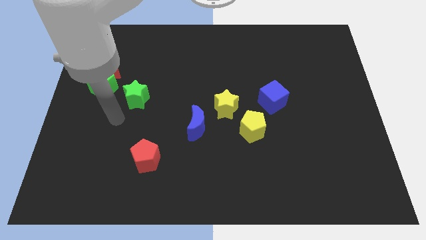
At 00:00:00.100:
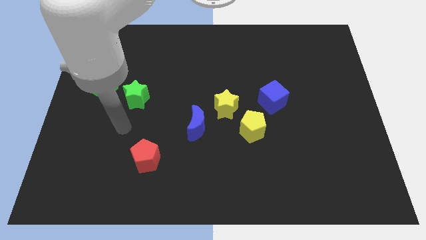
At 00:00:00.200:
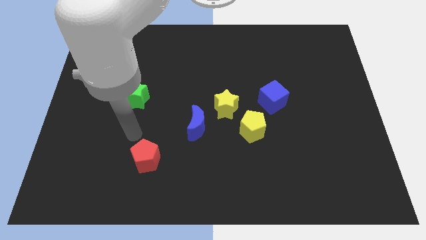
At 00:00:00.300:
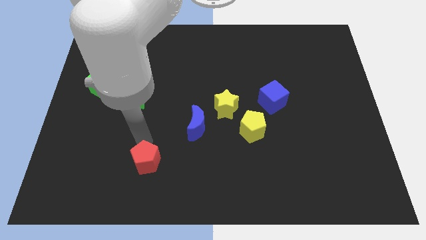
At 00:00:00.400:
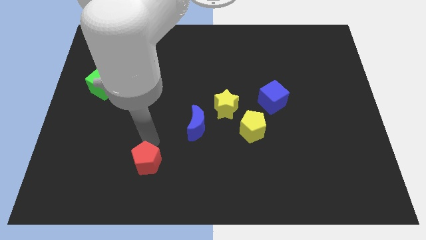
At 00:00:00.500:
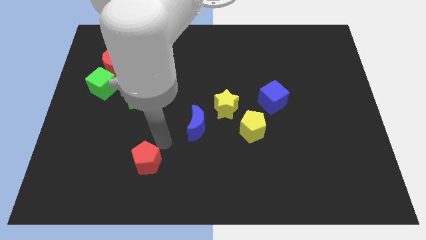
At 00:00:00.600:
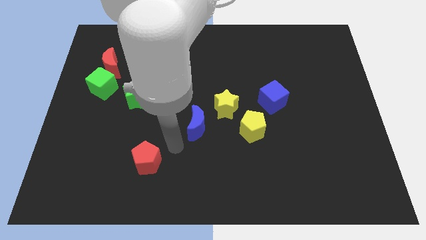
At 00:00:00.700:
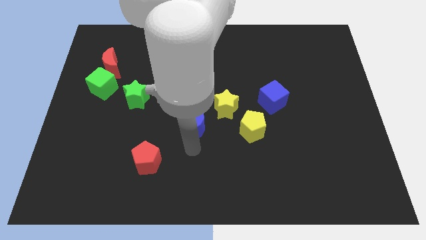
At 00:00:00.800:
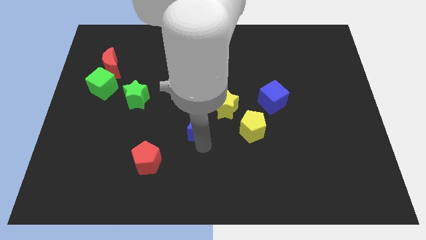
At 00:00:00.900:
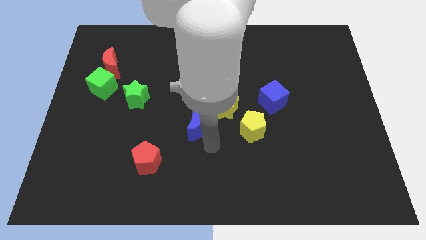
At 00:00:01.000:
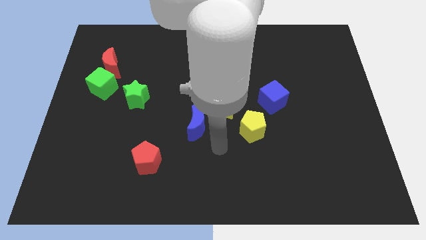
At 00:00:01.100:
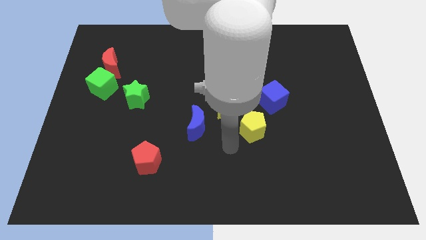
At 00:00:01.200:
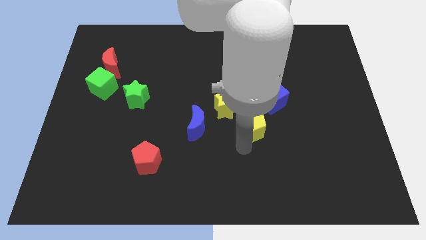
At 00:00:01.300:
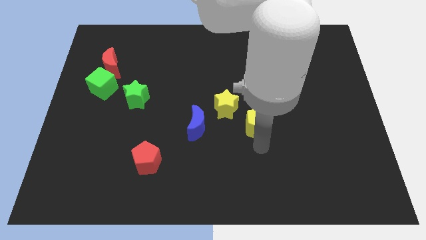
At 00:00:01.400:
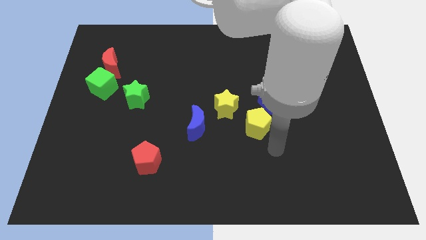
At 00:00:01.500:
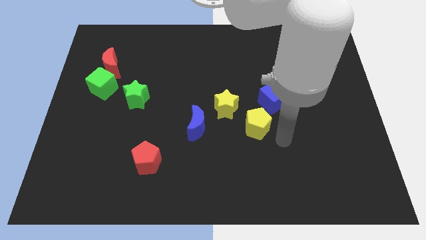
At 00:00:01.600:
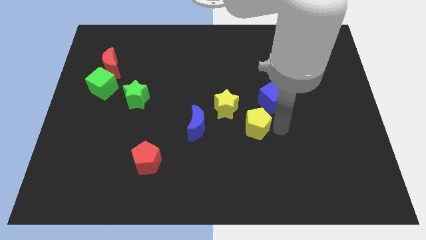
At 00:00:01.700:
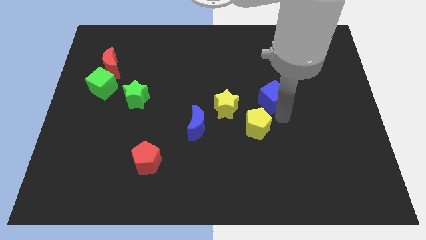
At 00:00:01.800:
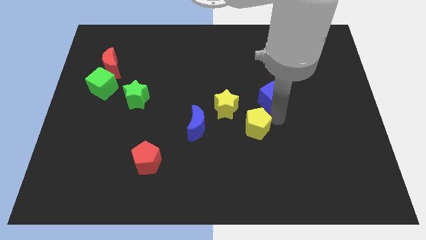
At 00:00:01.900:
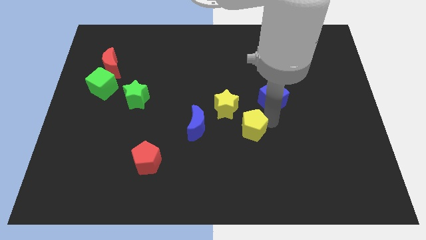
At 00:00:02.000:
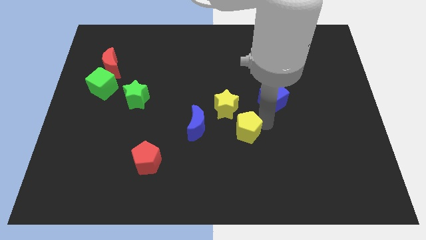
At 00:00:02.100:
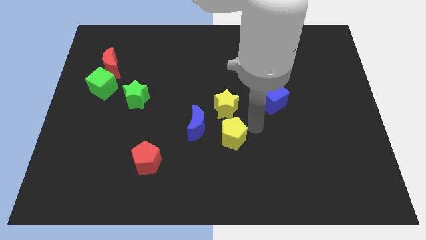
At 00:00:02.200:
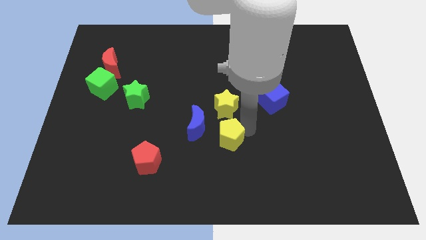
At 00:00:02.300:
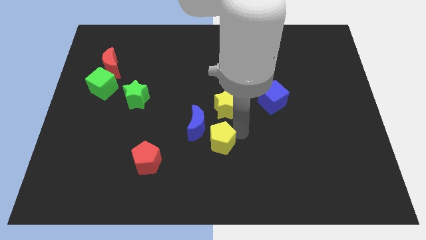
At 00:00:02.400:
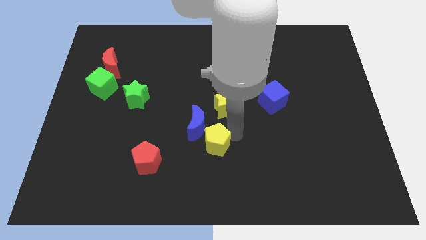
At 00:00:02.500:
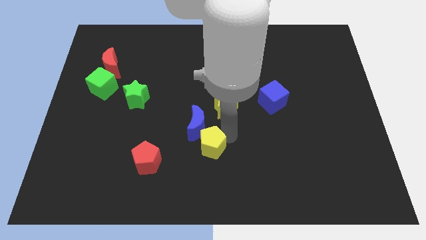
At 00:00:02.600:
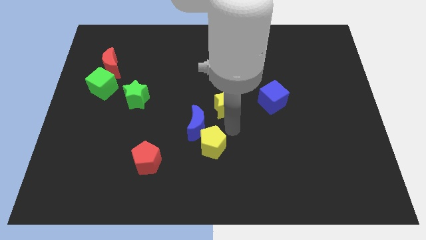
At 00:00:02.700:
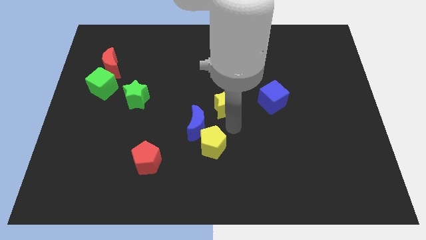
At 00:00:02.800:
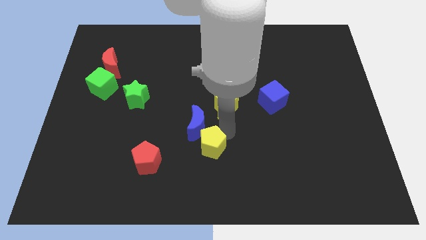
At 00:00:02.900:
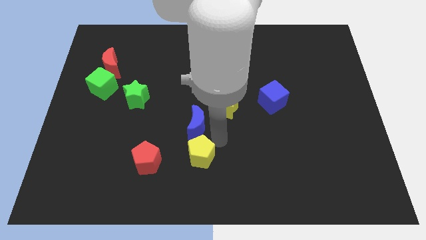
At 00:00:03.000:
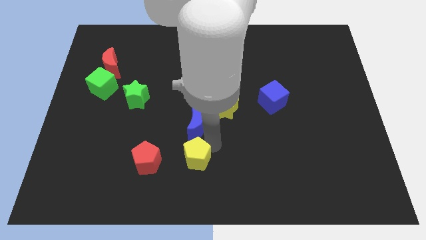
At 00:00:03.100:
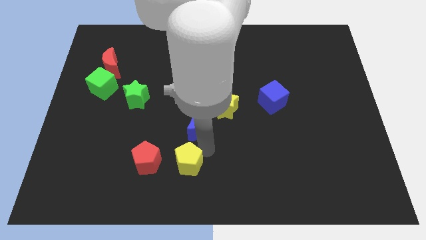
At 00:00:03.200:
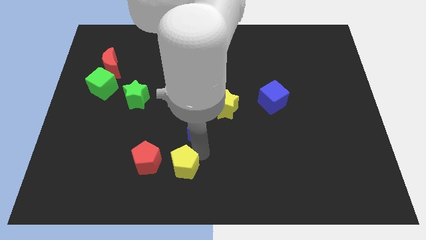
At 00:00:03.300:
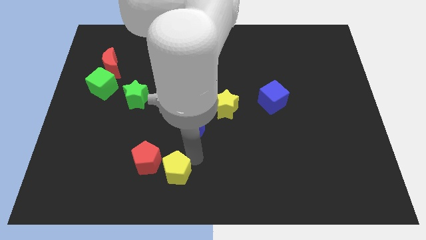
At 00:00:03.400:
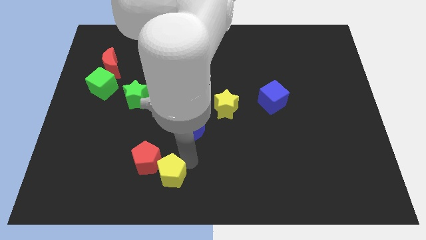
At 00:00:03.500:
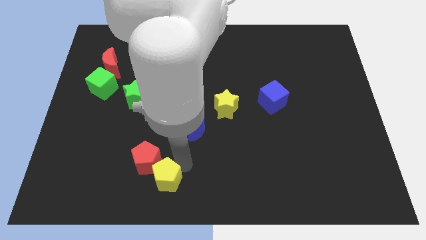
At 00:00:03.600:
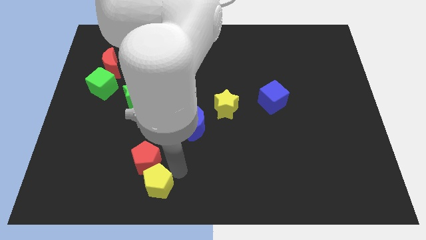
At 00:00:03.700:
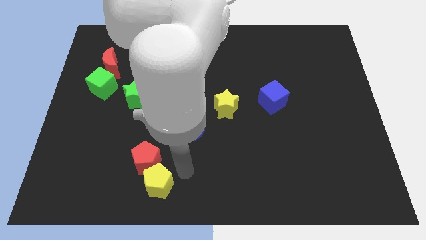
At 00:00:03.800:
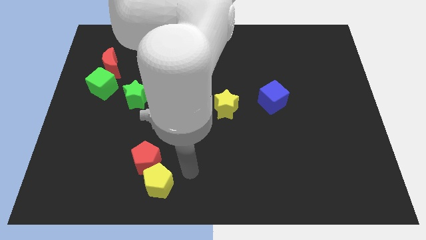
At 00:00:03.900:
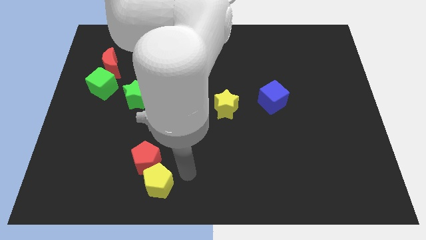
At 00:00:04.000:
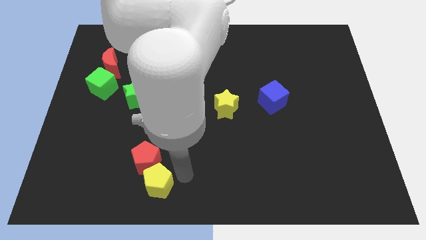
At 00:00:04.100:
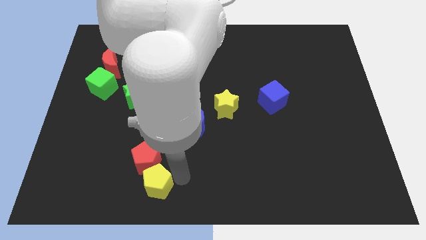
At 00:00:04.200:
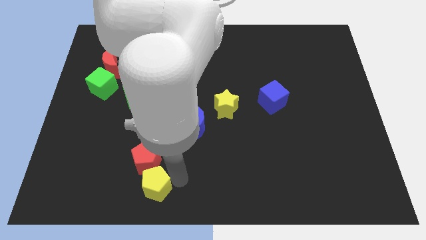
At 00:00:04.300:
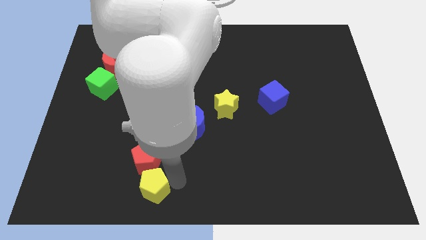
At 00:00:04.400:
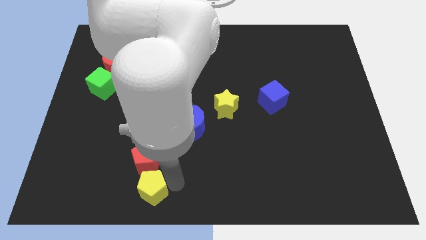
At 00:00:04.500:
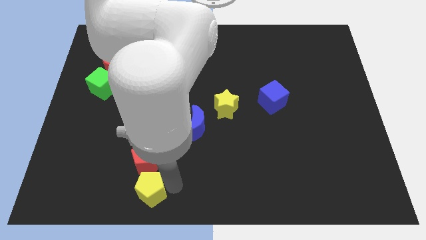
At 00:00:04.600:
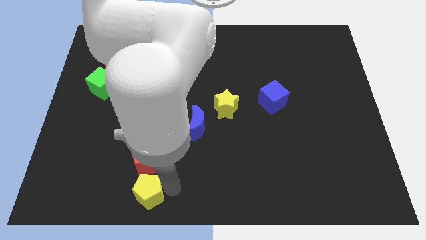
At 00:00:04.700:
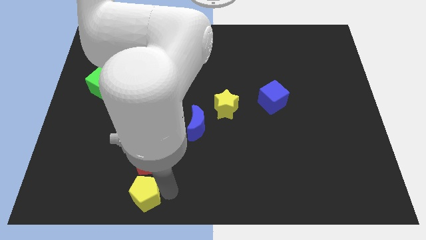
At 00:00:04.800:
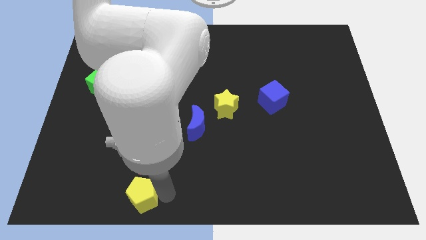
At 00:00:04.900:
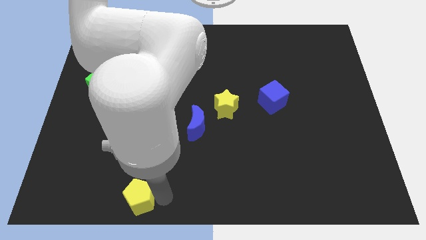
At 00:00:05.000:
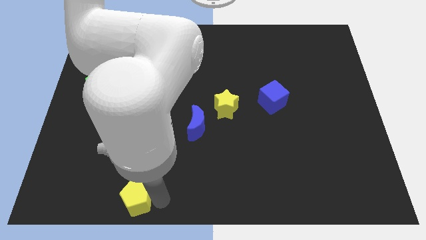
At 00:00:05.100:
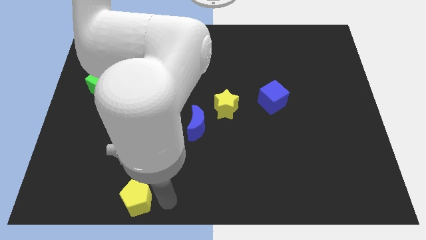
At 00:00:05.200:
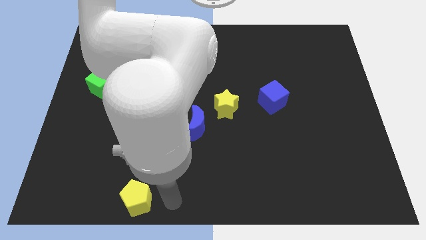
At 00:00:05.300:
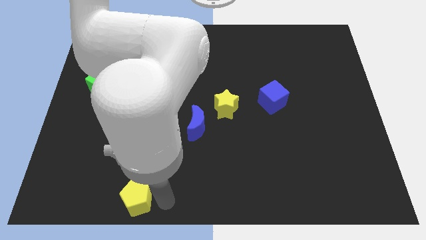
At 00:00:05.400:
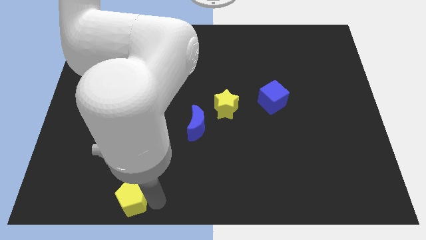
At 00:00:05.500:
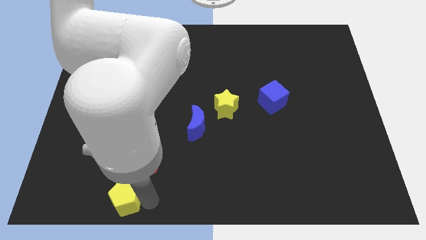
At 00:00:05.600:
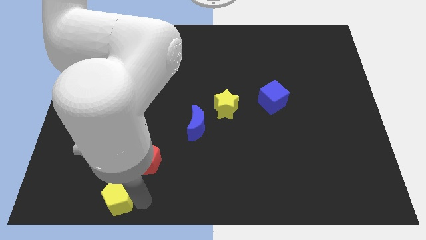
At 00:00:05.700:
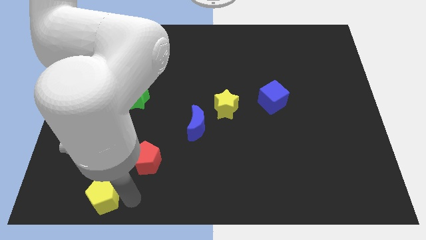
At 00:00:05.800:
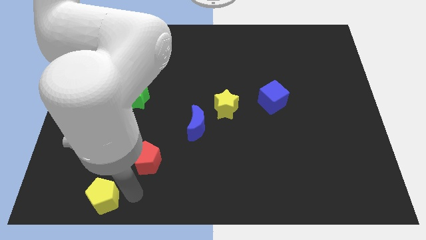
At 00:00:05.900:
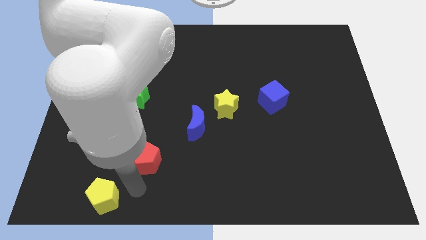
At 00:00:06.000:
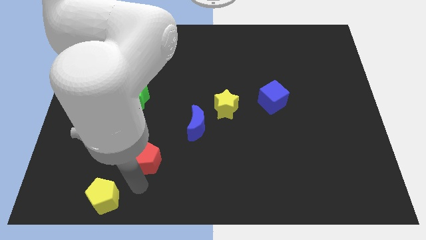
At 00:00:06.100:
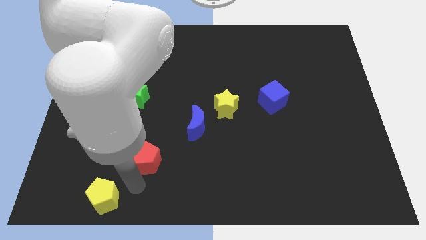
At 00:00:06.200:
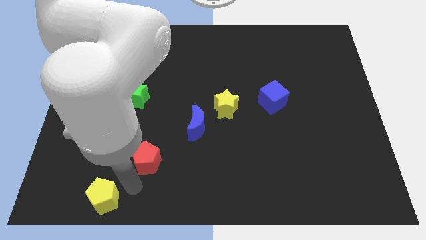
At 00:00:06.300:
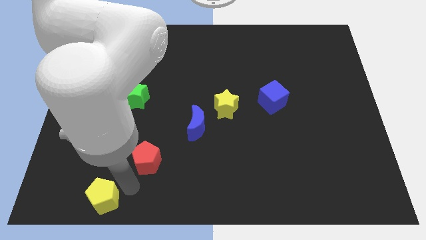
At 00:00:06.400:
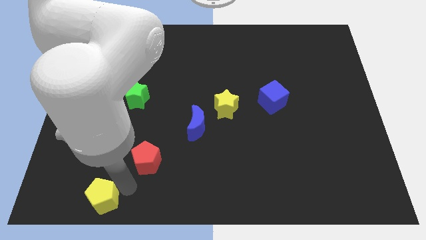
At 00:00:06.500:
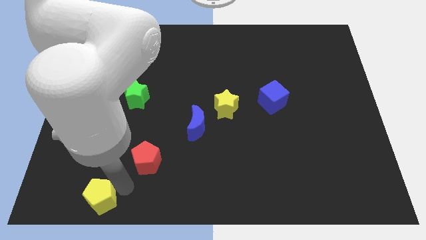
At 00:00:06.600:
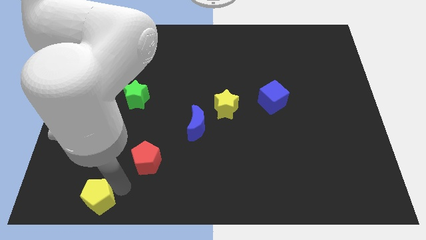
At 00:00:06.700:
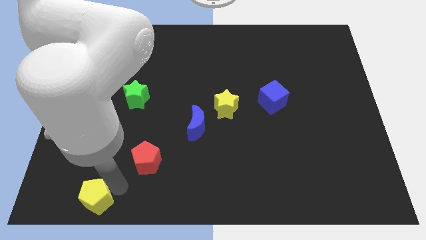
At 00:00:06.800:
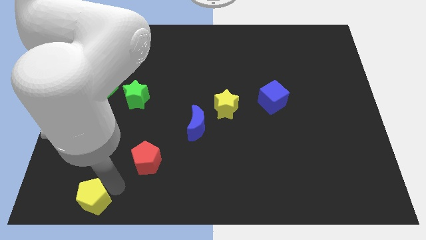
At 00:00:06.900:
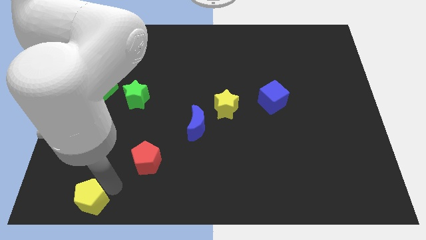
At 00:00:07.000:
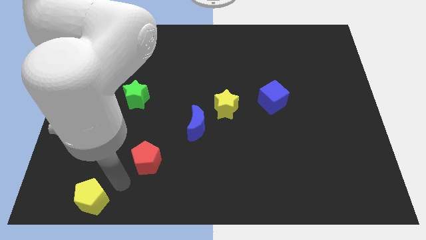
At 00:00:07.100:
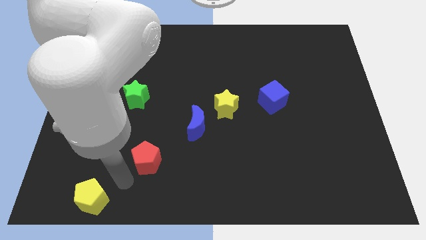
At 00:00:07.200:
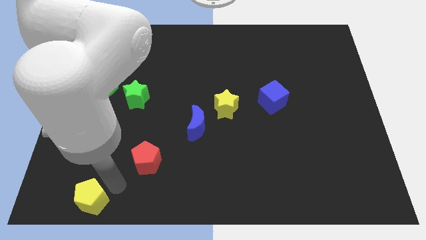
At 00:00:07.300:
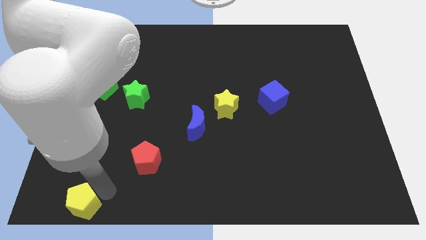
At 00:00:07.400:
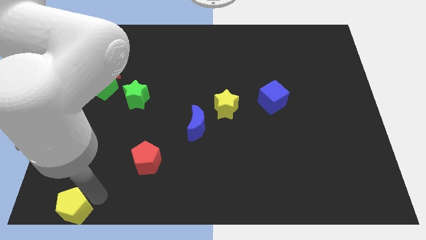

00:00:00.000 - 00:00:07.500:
move the yellow pentagon to the bottom left corner
